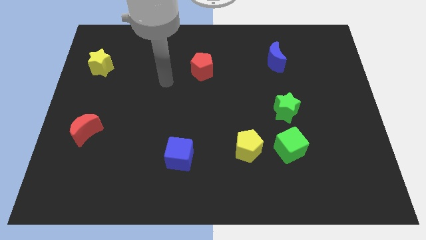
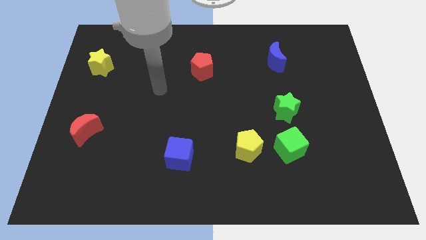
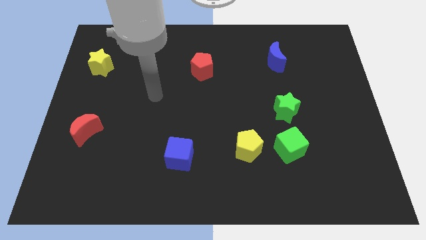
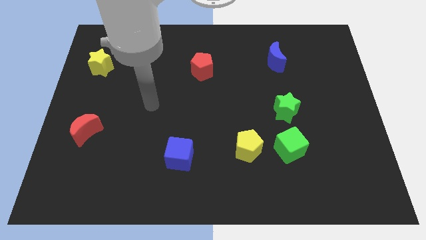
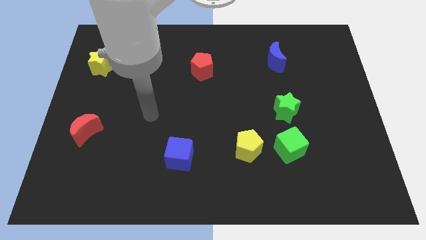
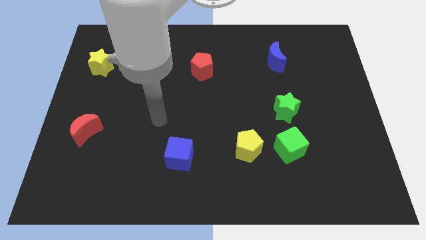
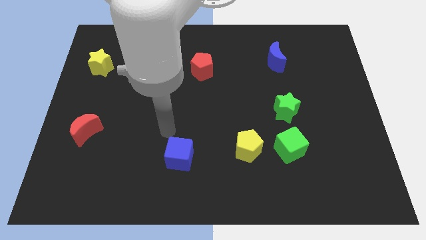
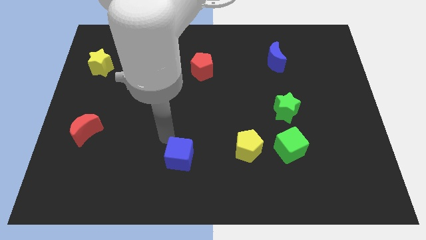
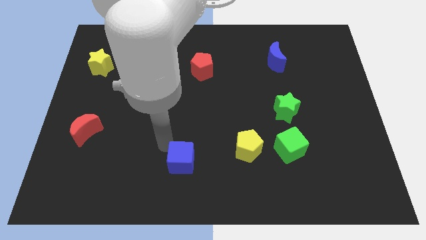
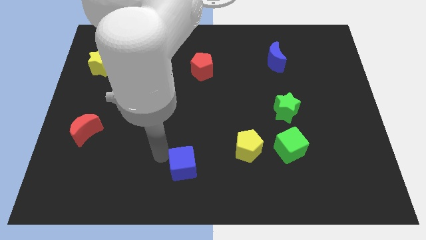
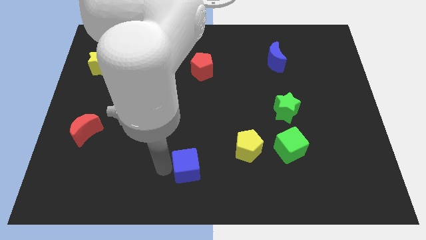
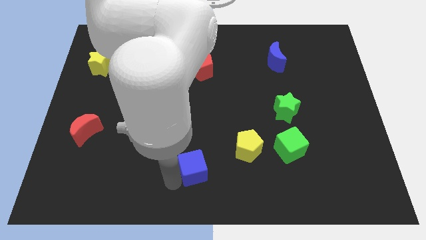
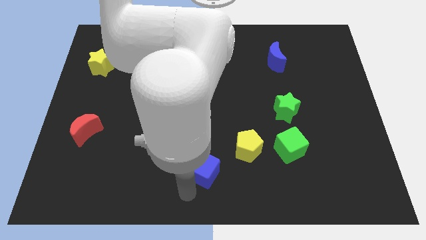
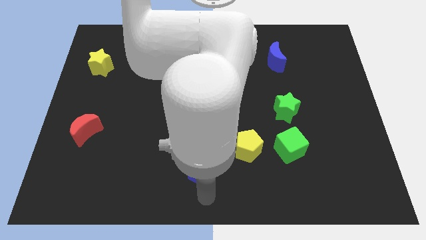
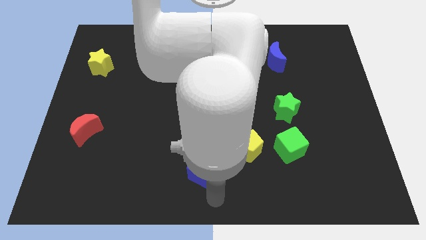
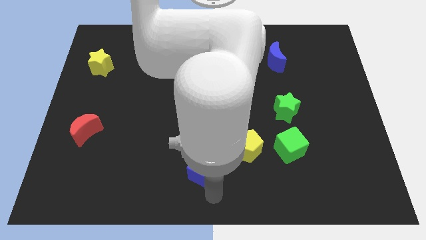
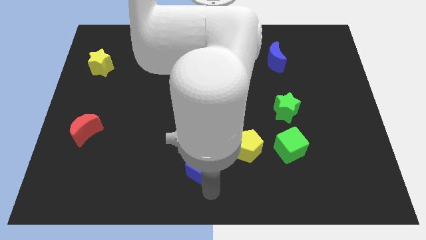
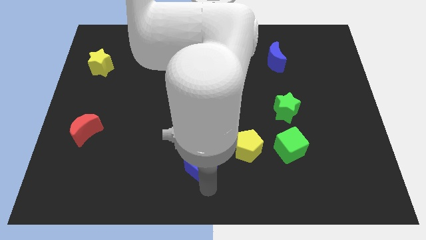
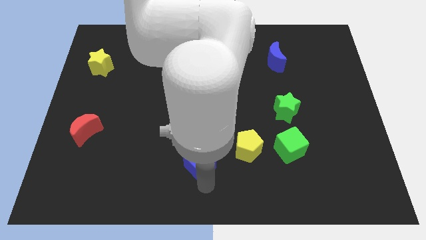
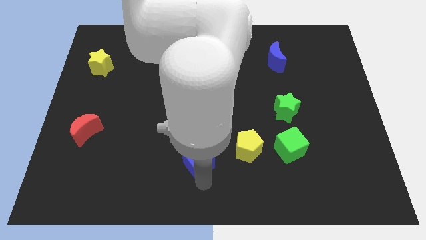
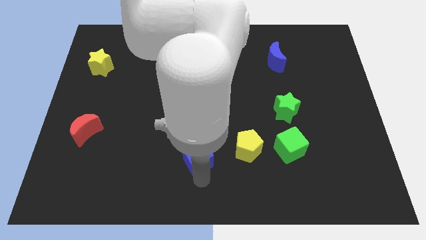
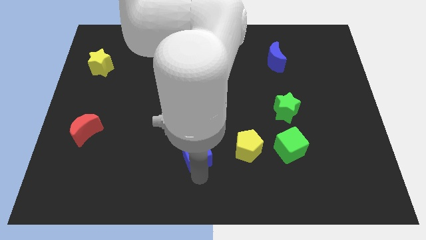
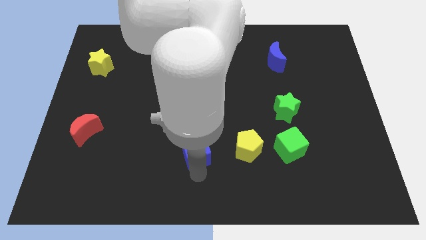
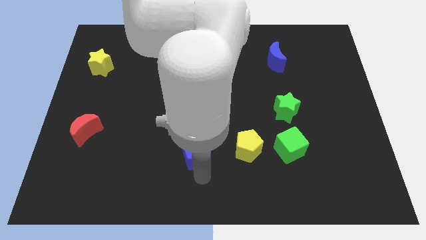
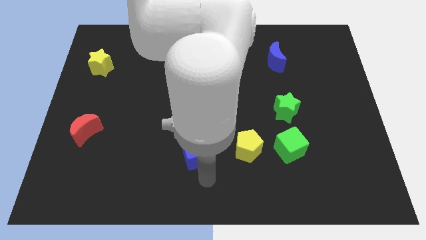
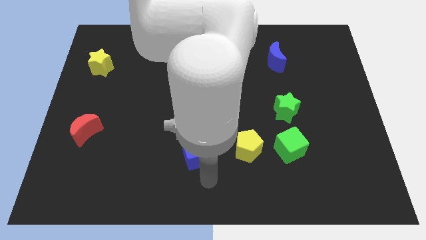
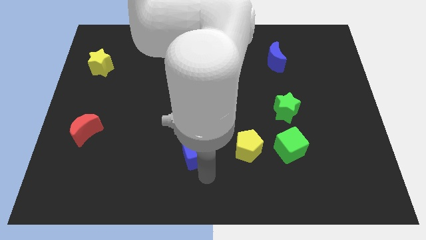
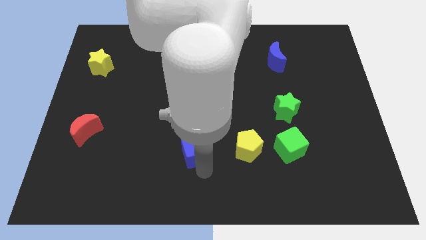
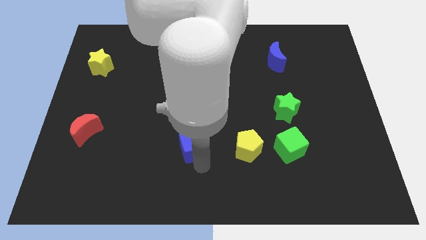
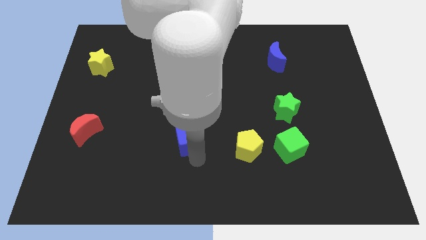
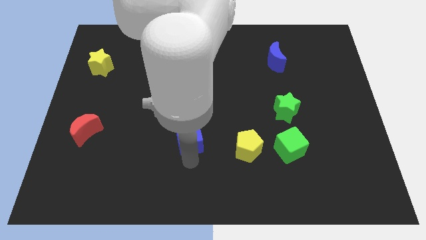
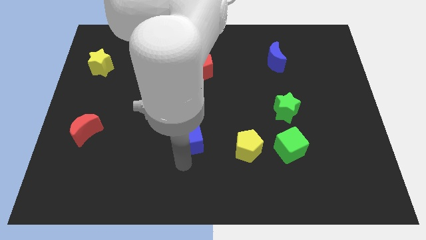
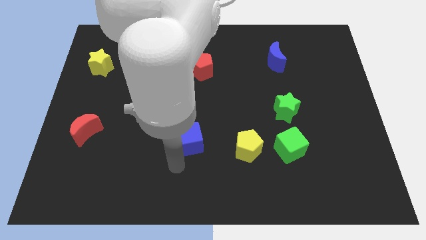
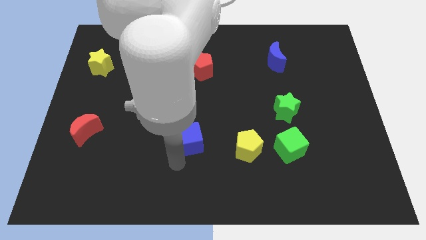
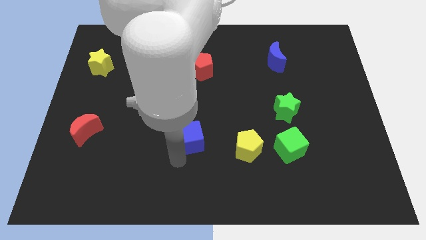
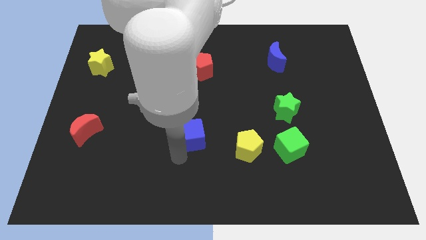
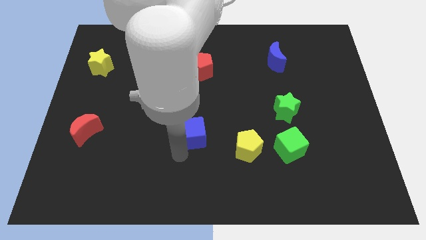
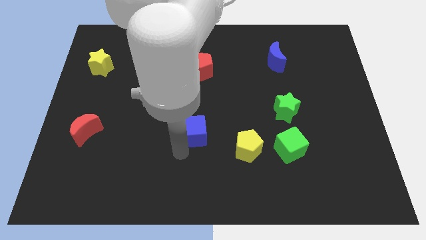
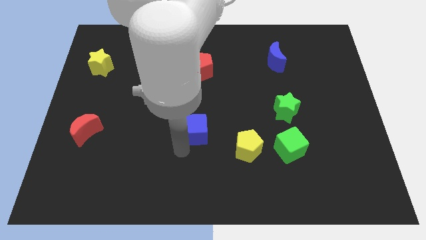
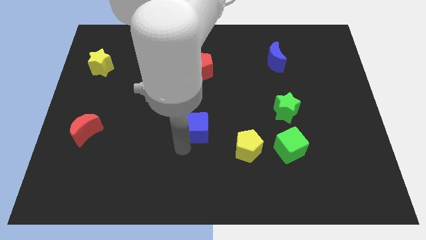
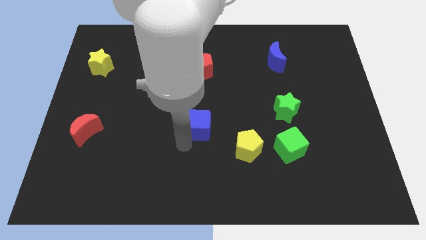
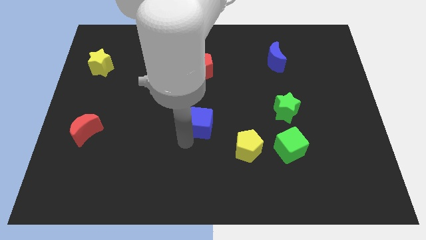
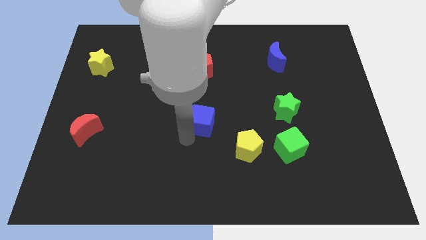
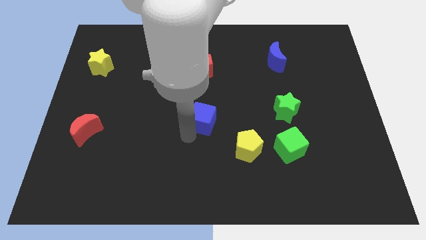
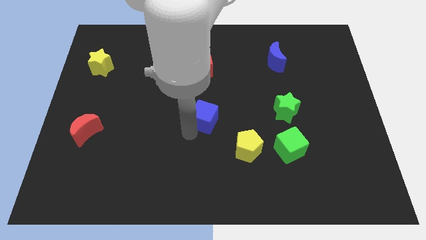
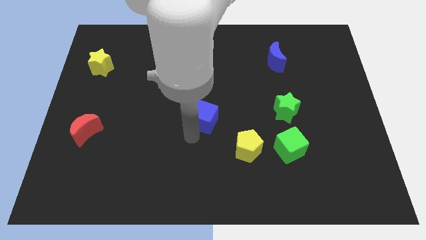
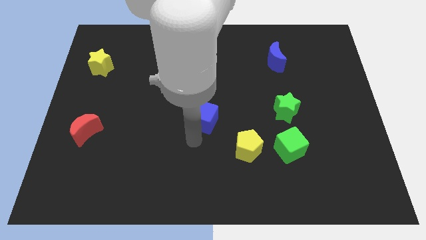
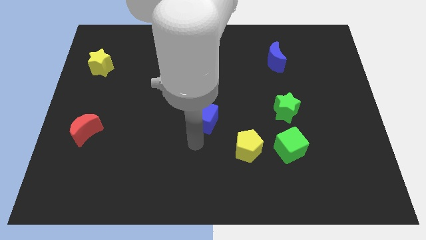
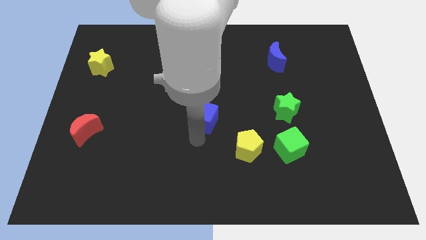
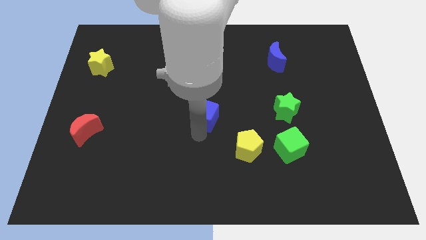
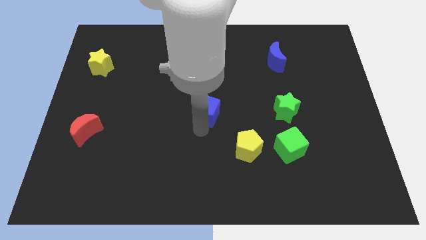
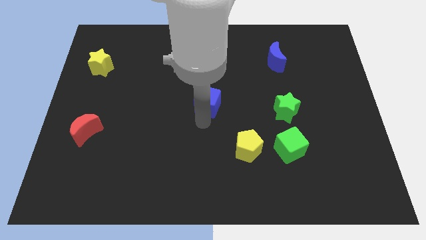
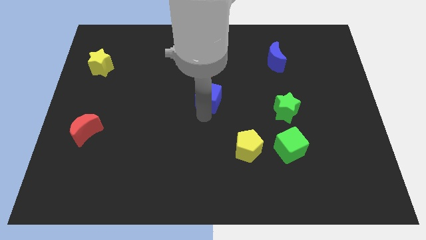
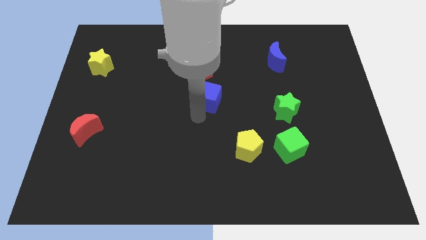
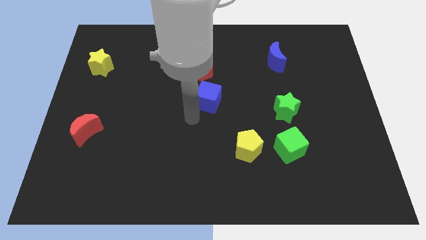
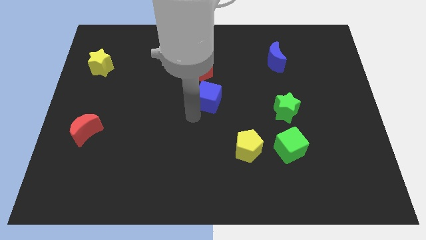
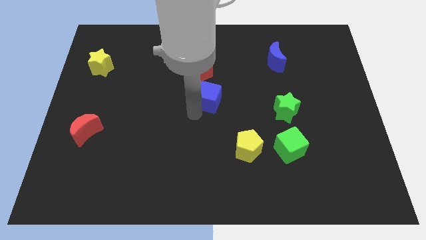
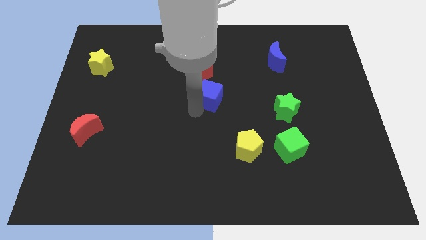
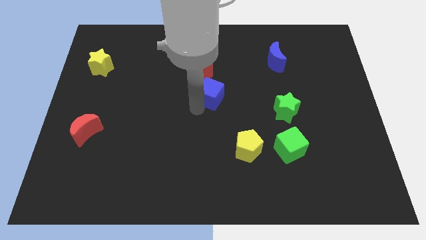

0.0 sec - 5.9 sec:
move the blue cube diagonally down and to the right of the red pentagon

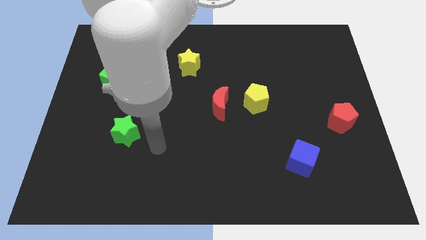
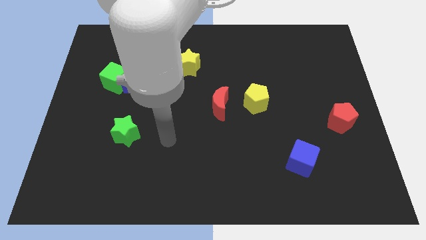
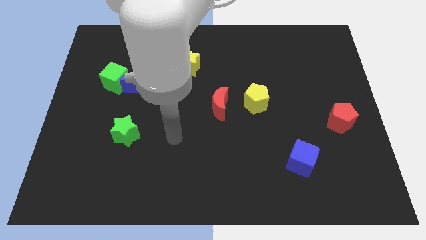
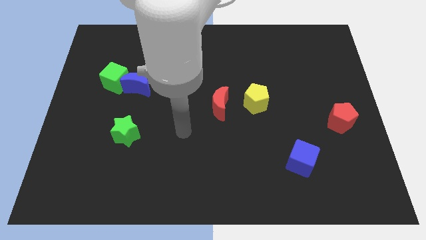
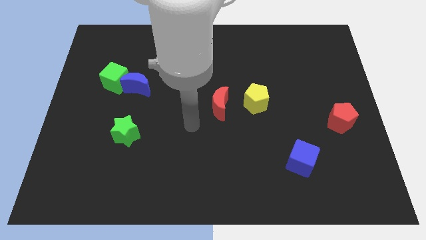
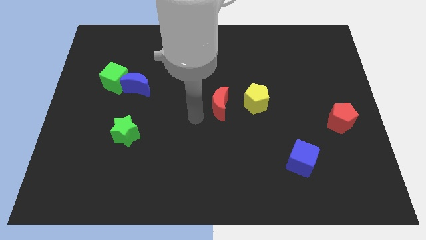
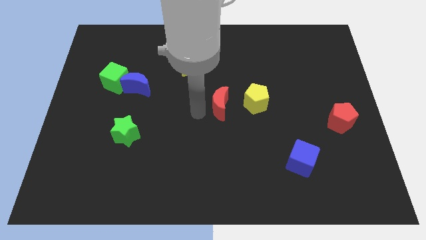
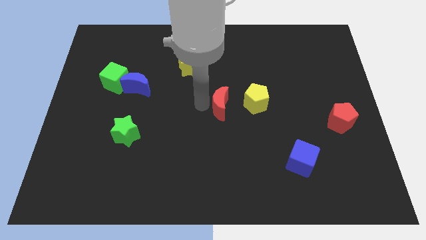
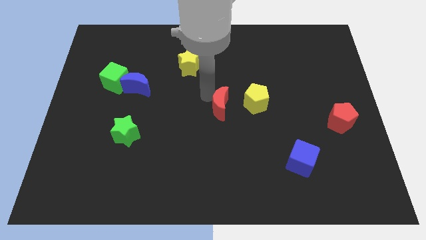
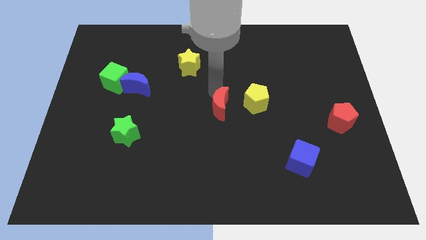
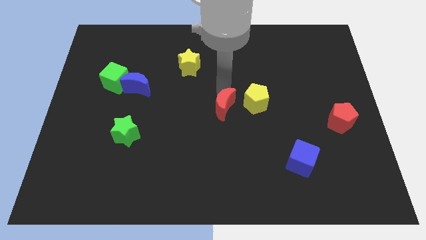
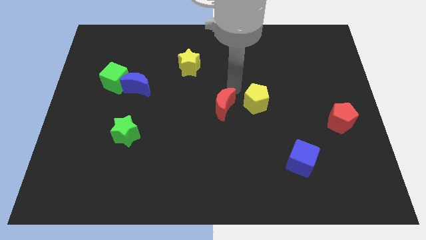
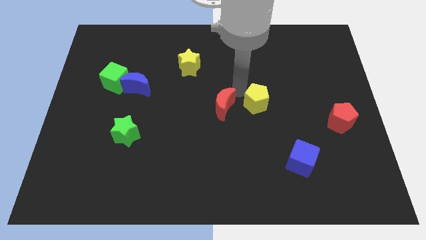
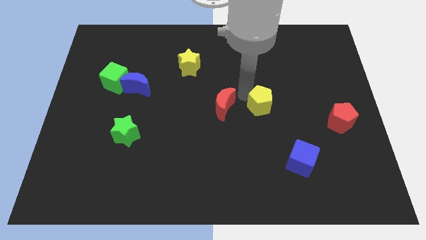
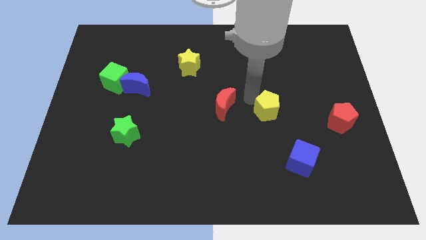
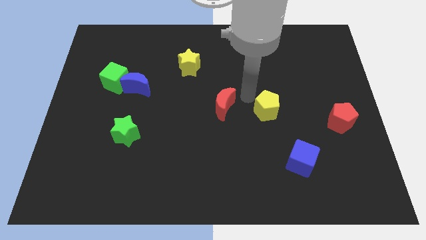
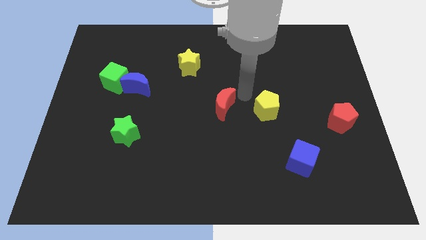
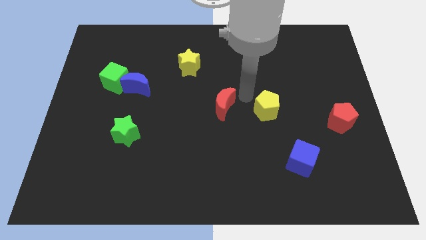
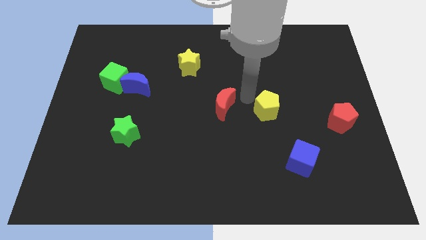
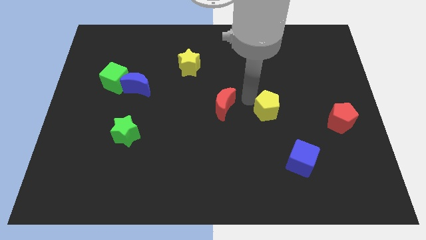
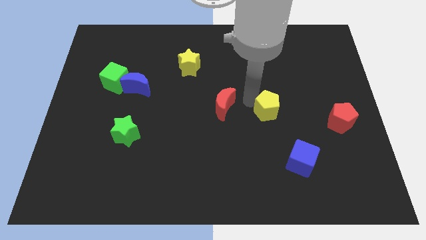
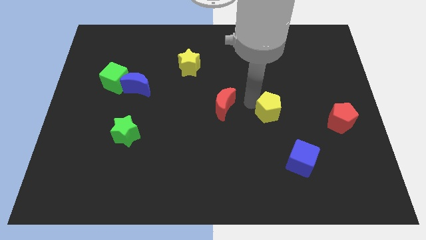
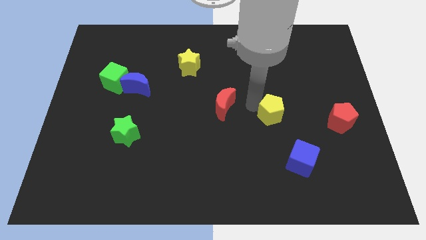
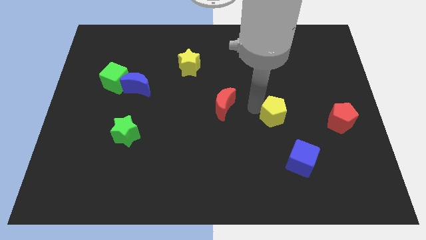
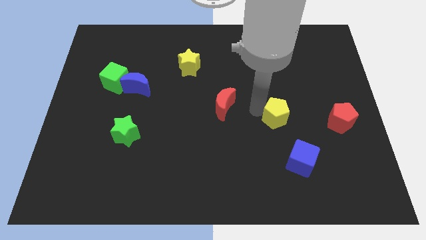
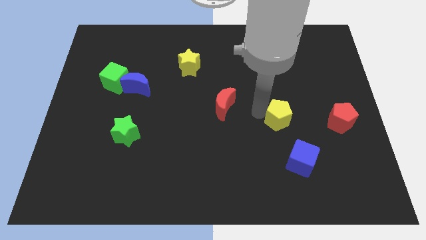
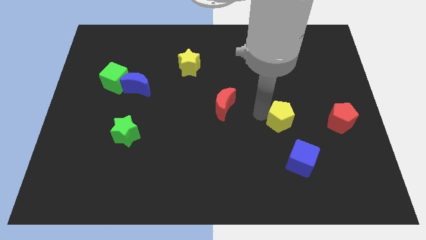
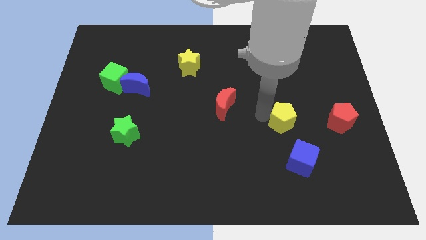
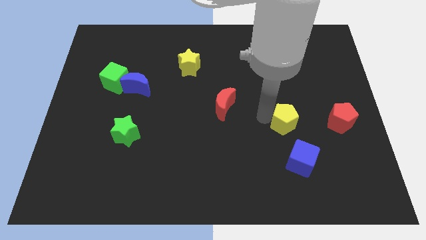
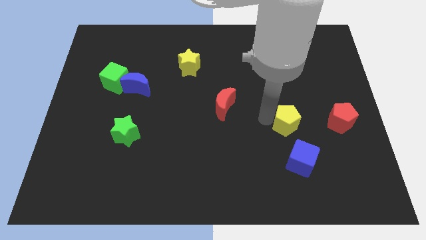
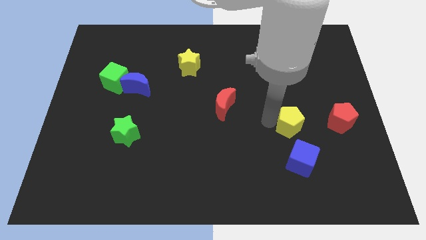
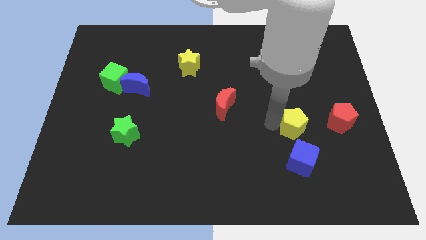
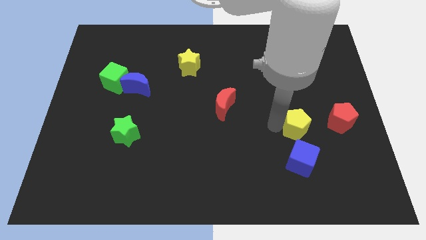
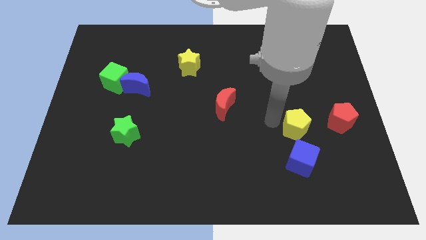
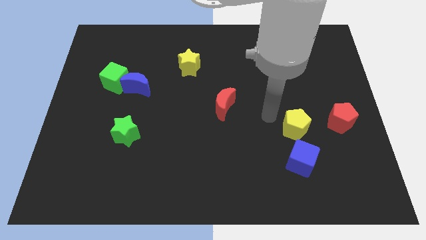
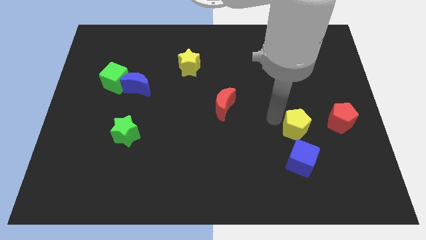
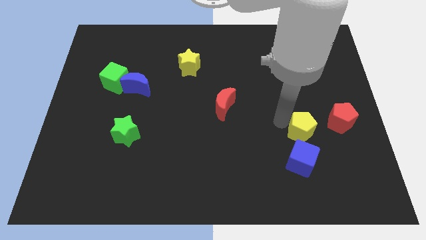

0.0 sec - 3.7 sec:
push the yellow pentagon to the top right of the blue cube
